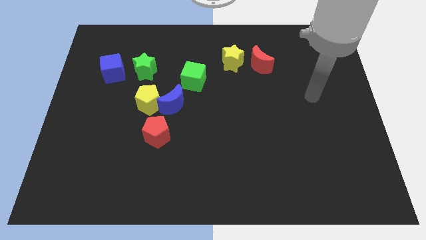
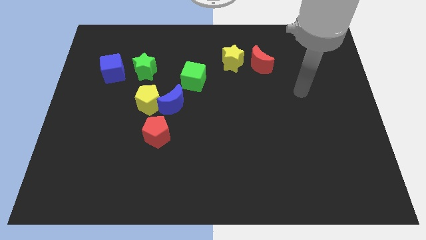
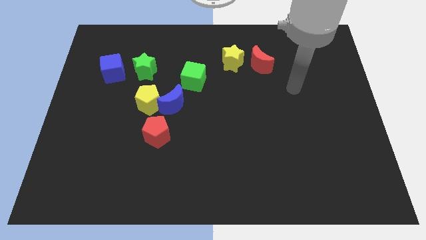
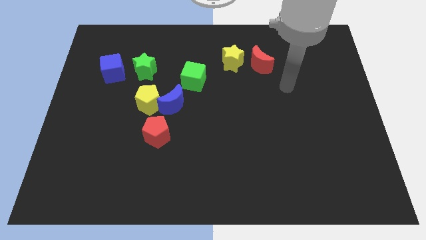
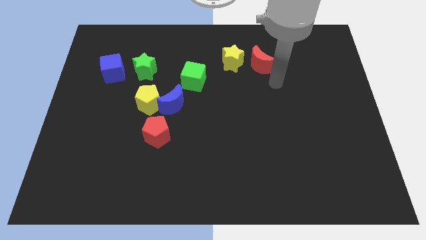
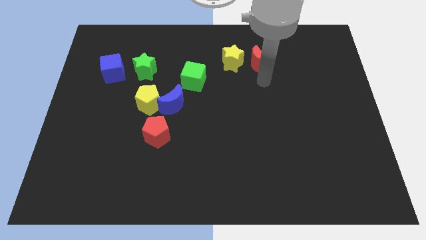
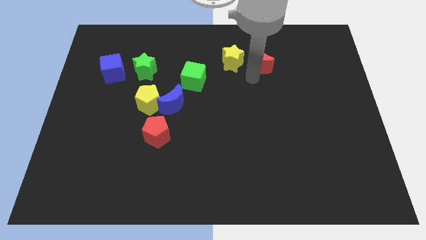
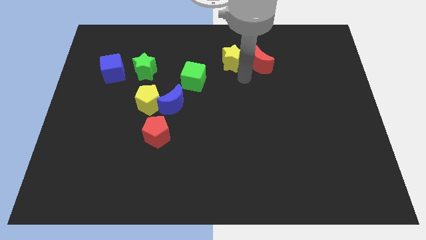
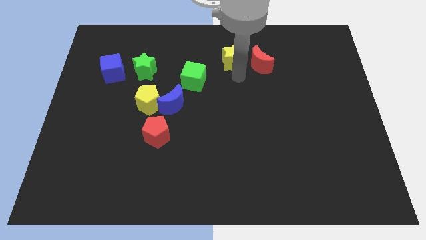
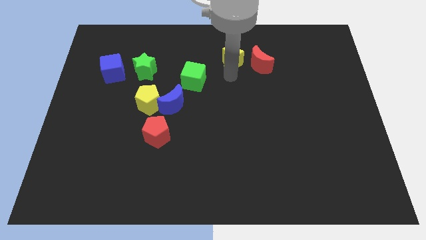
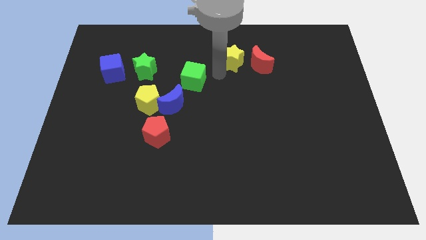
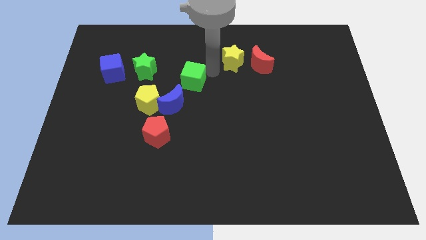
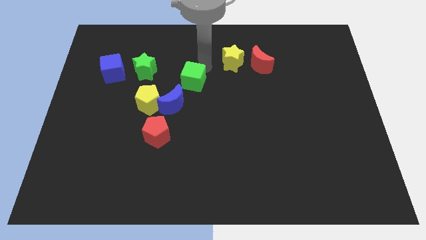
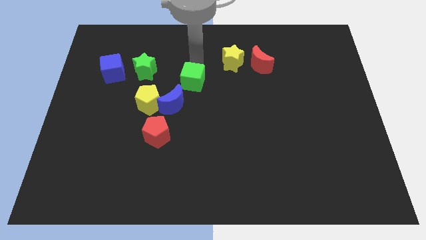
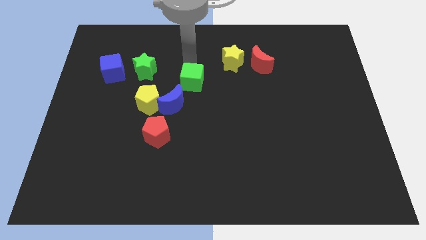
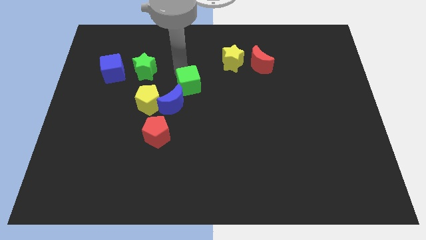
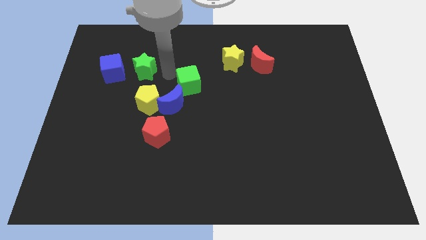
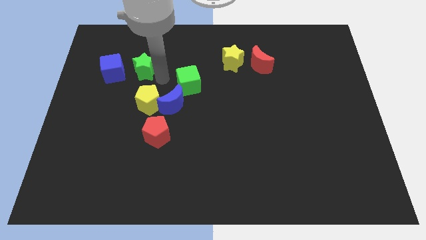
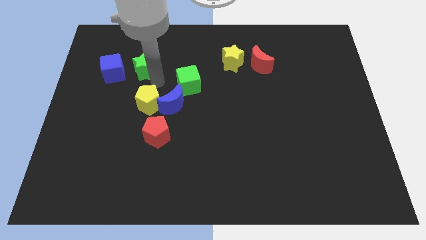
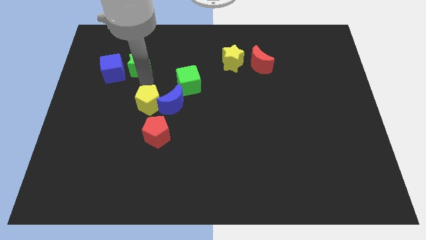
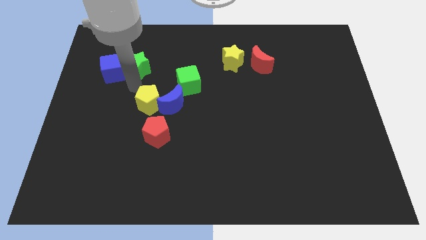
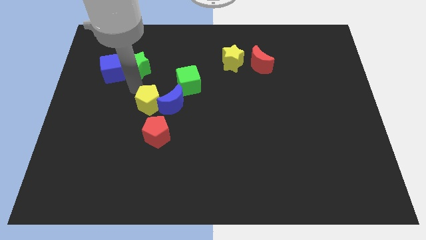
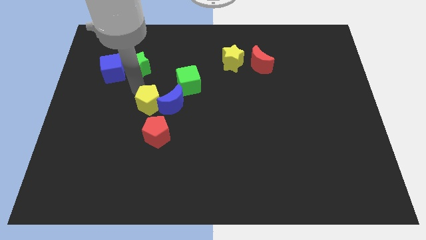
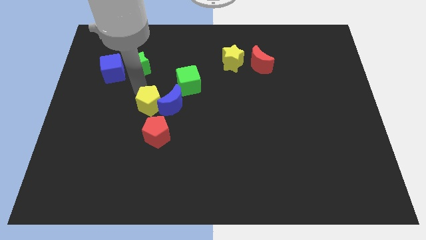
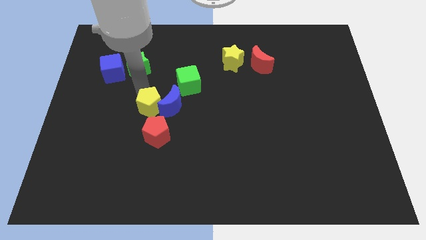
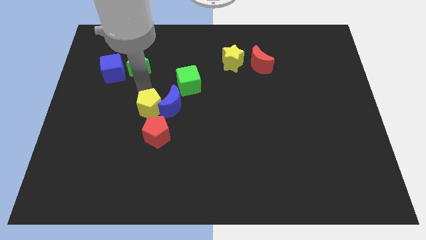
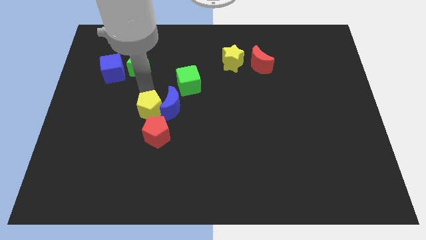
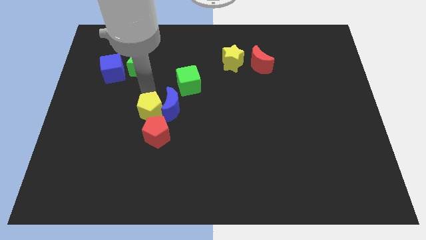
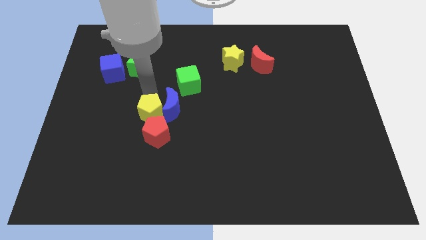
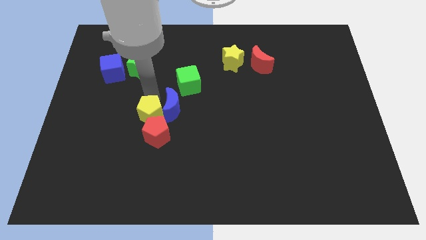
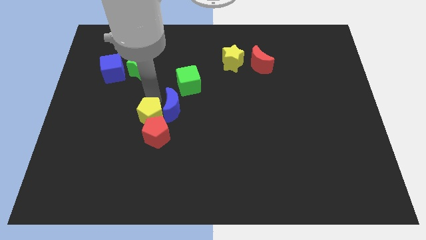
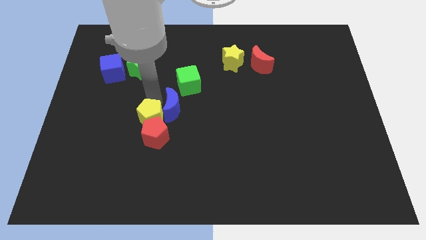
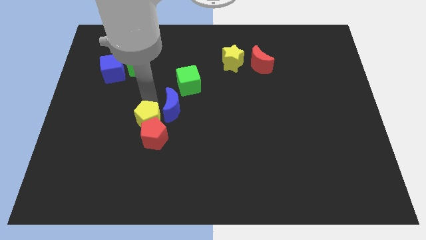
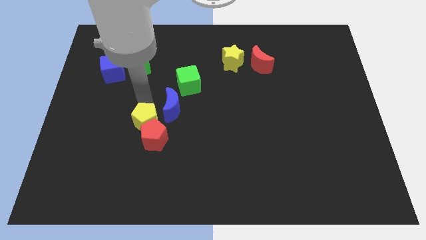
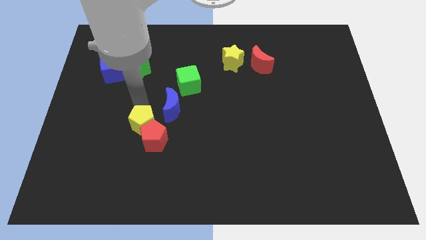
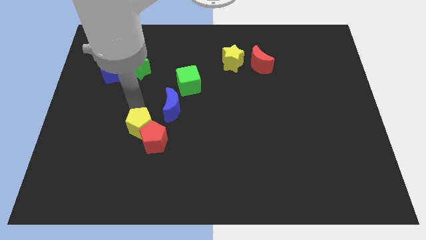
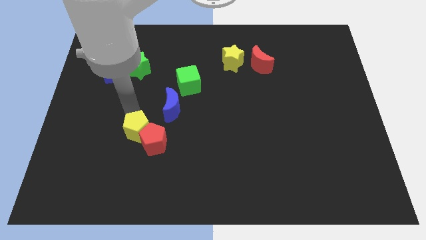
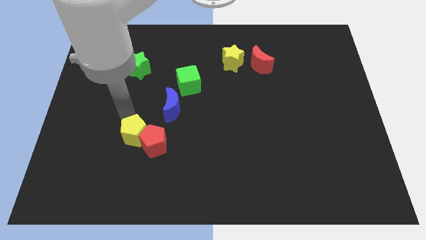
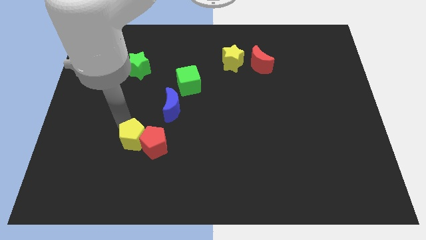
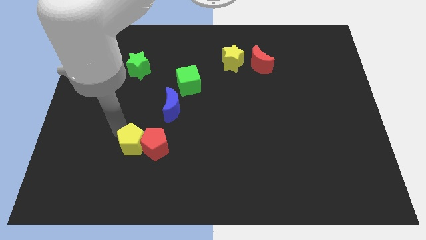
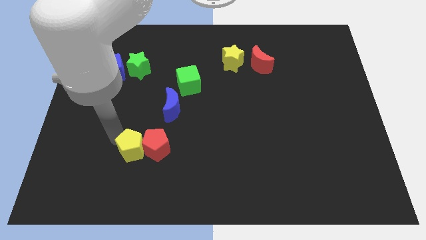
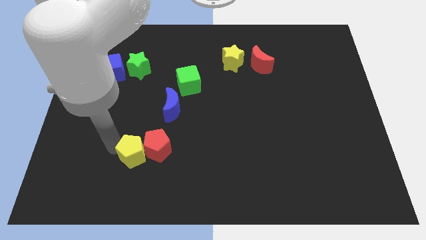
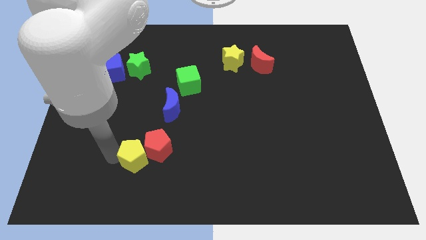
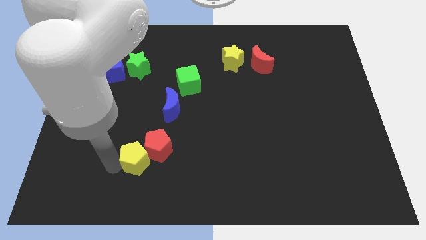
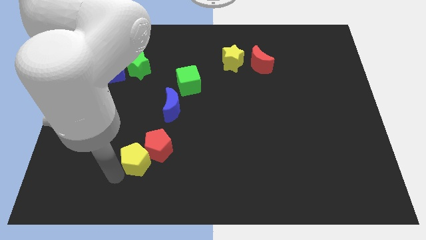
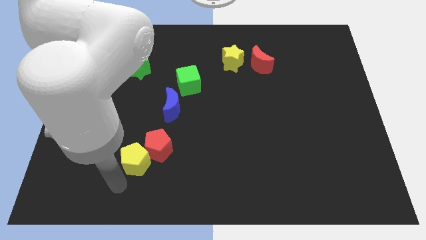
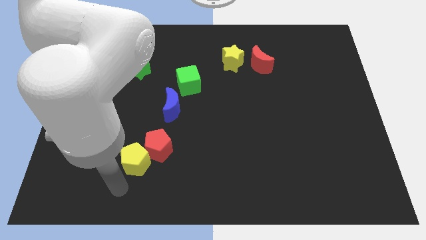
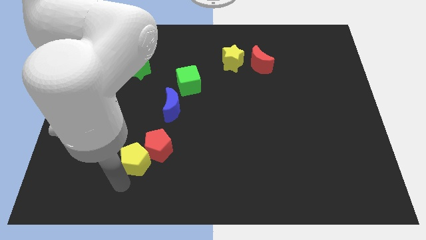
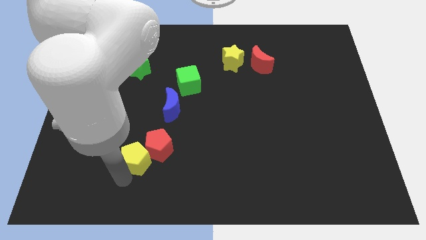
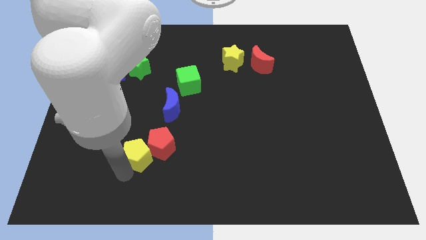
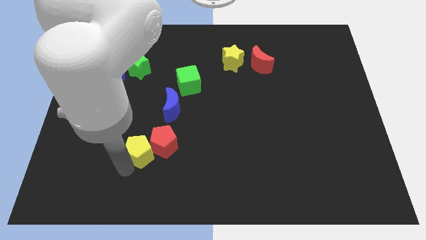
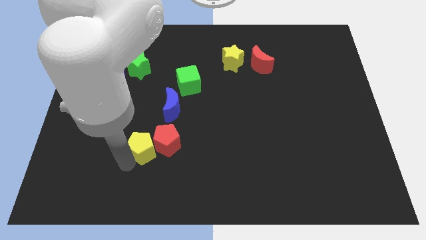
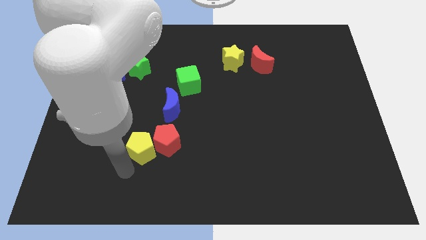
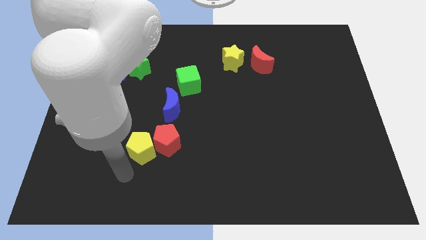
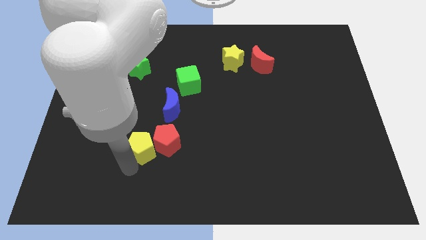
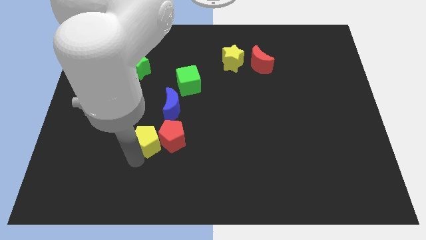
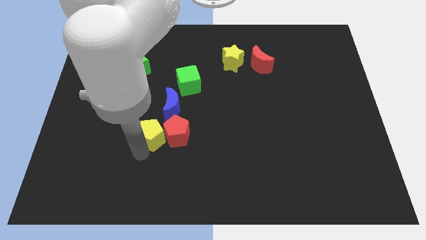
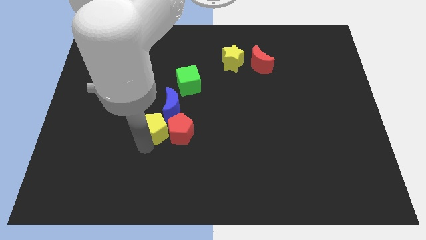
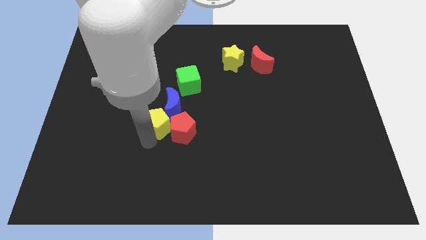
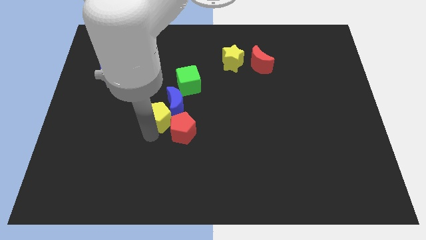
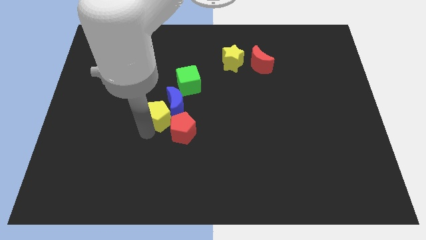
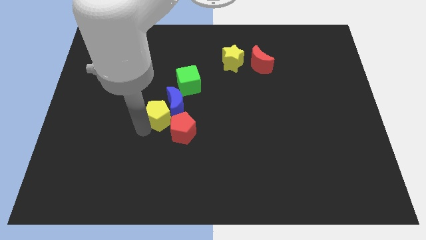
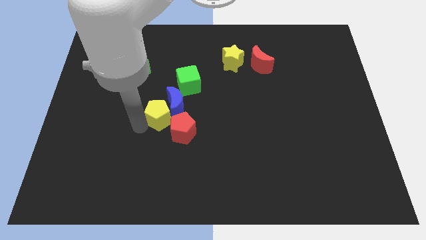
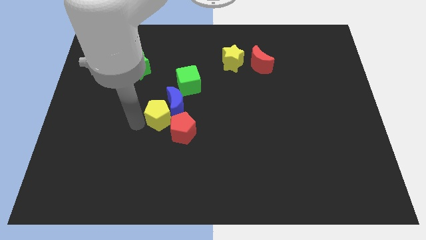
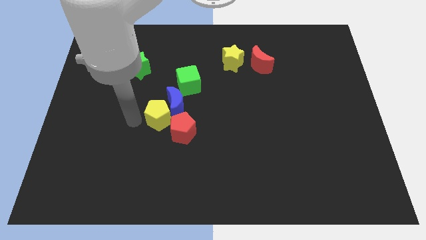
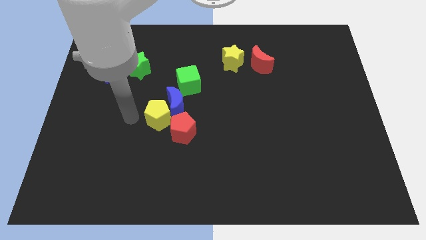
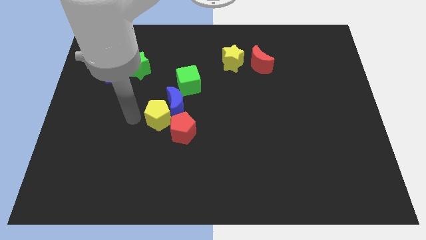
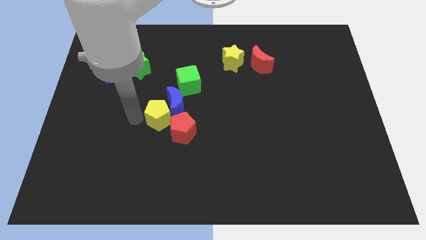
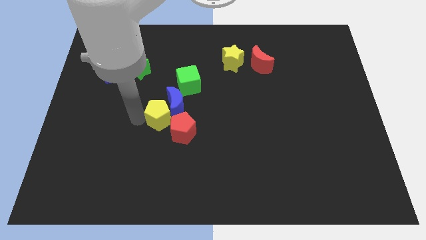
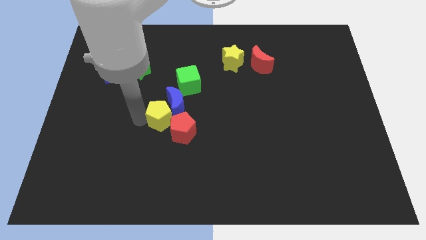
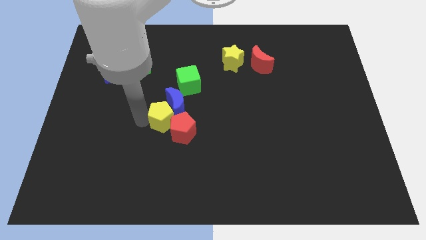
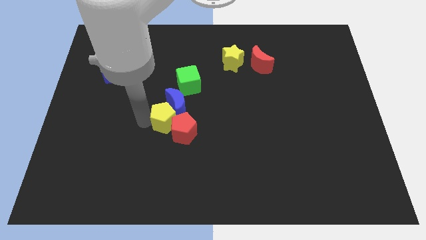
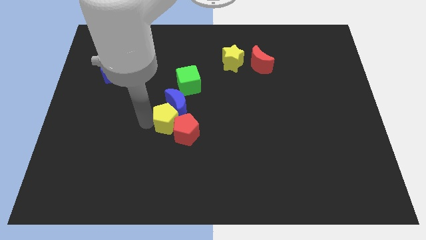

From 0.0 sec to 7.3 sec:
move the yellow pentagon to the center
